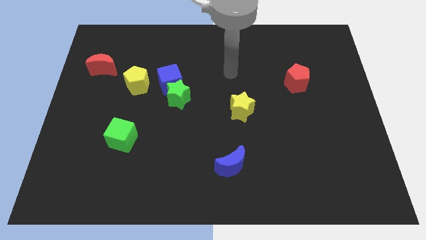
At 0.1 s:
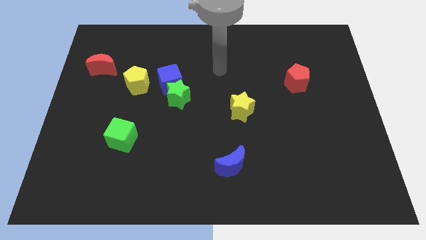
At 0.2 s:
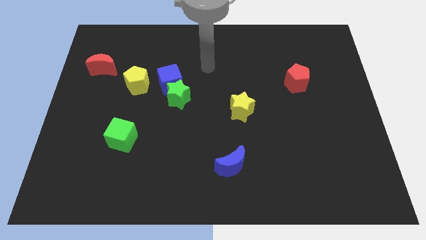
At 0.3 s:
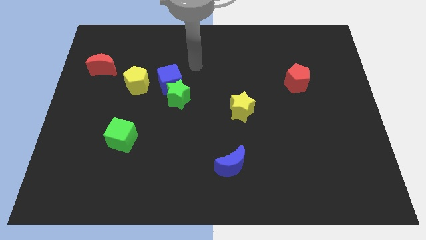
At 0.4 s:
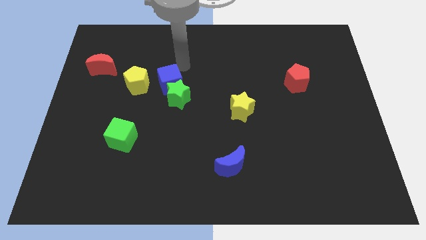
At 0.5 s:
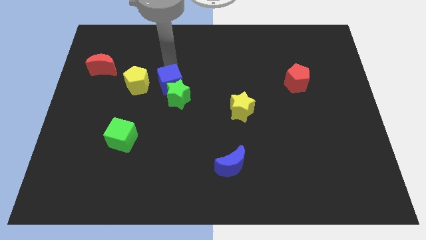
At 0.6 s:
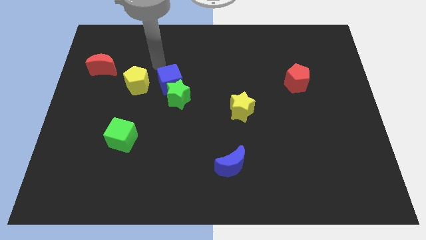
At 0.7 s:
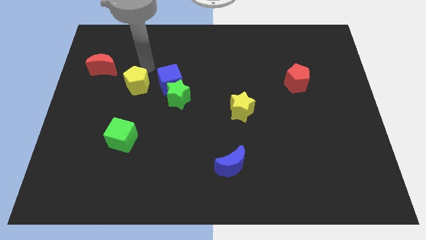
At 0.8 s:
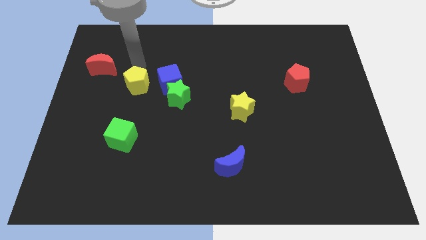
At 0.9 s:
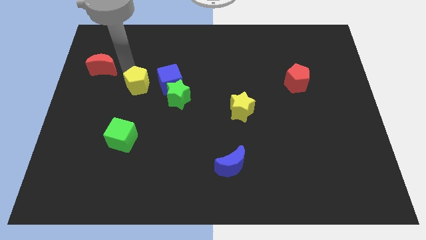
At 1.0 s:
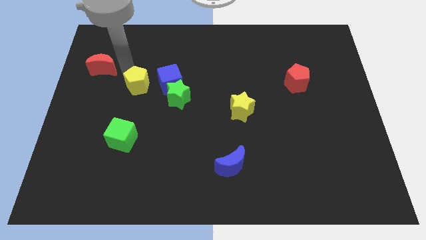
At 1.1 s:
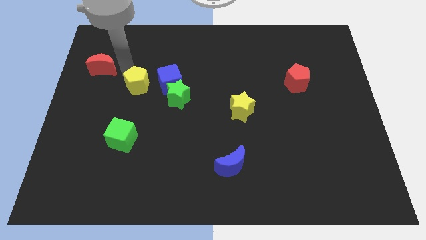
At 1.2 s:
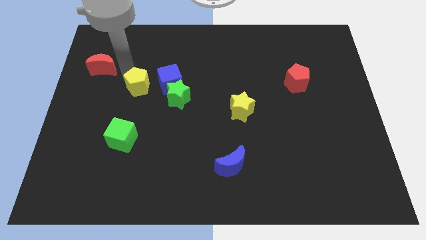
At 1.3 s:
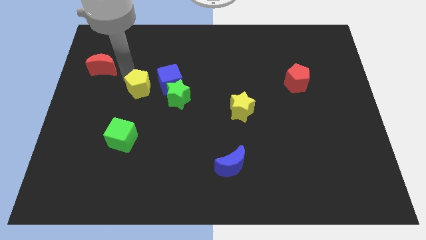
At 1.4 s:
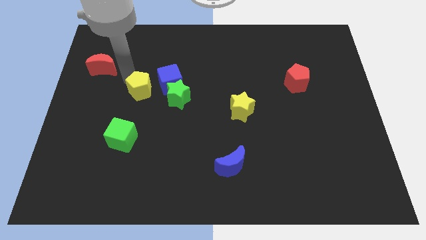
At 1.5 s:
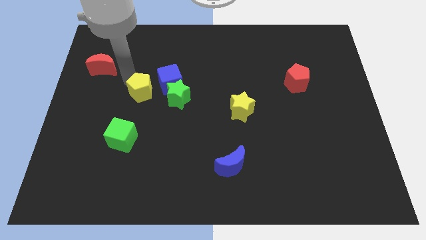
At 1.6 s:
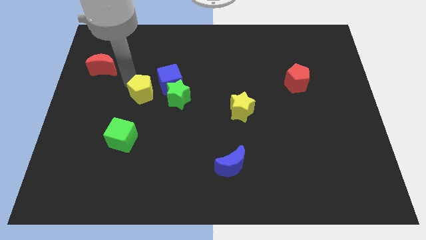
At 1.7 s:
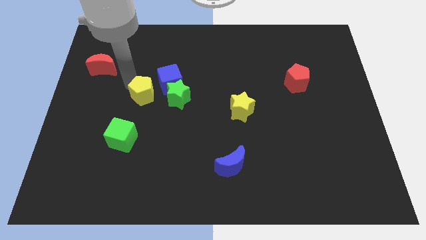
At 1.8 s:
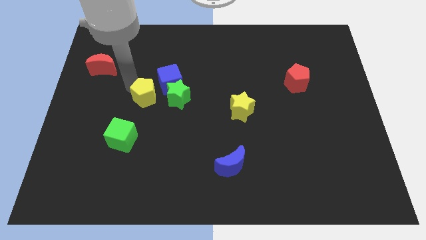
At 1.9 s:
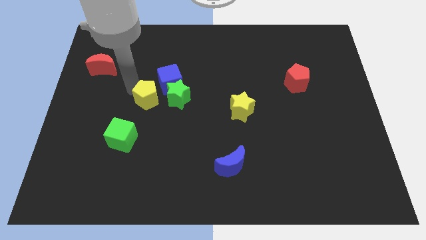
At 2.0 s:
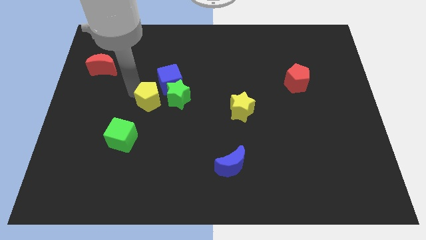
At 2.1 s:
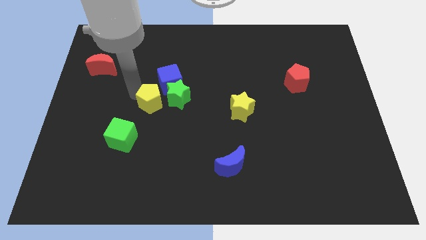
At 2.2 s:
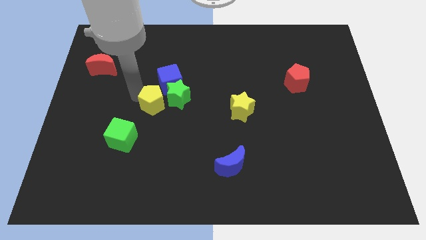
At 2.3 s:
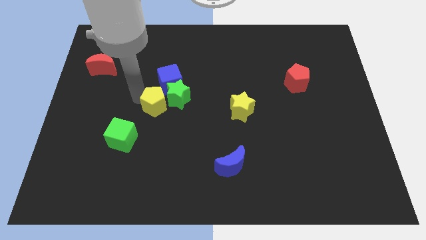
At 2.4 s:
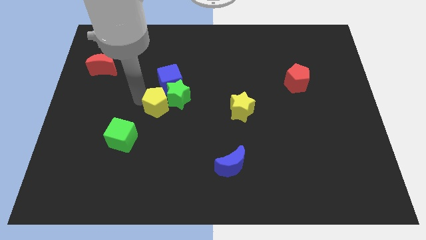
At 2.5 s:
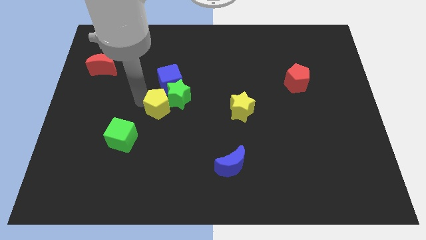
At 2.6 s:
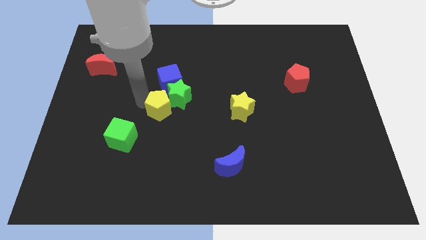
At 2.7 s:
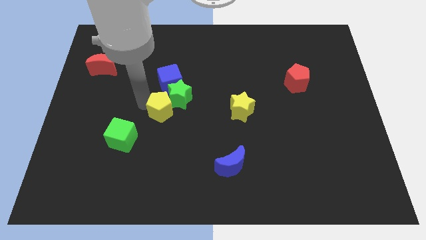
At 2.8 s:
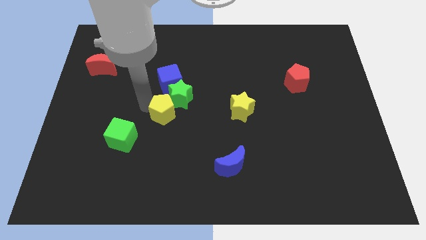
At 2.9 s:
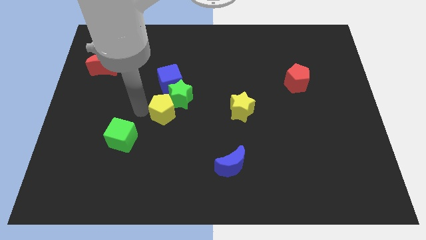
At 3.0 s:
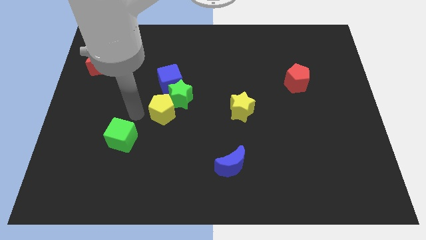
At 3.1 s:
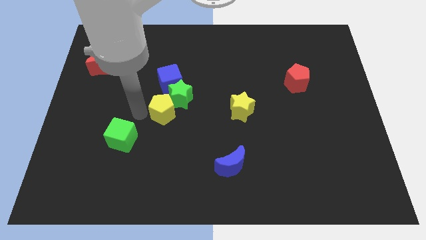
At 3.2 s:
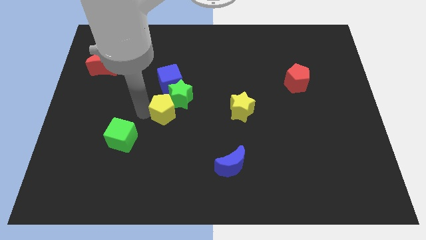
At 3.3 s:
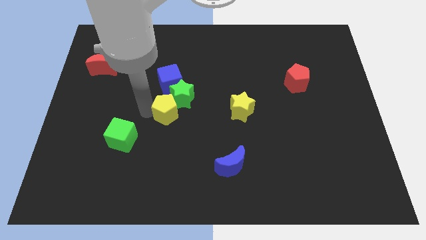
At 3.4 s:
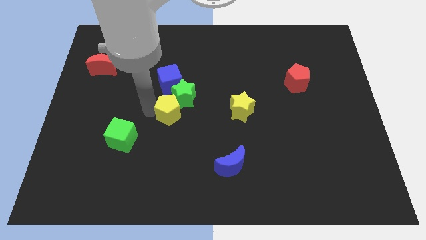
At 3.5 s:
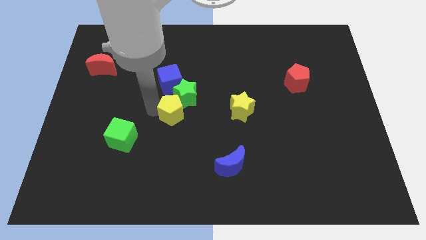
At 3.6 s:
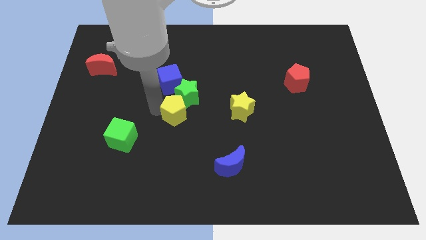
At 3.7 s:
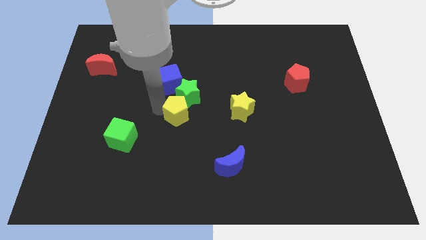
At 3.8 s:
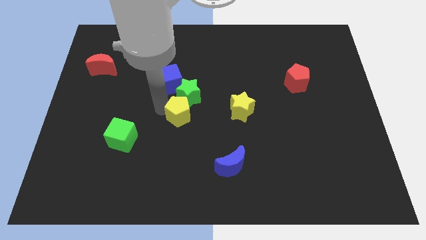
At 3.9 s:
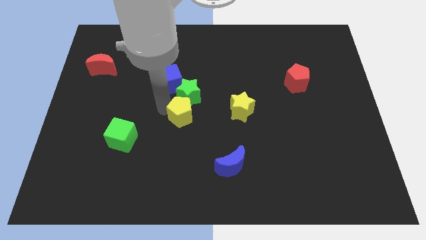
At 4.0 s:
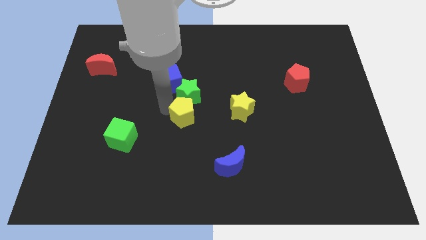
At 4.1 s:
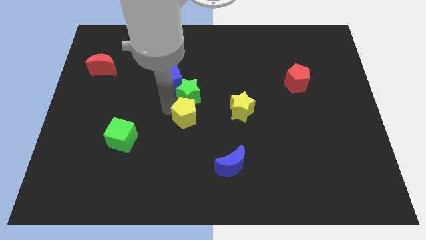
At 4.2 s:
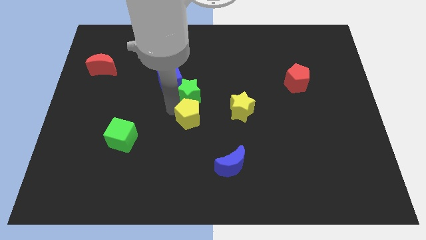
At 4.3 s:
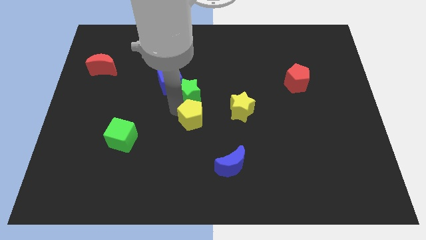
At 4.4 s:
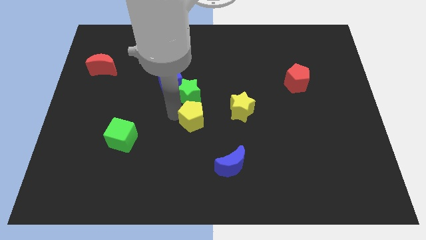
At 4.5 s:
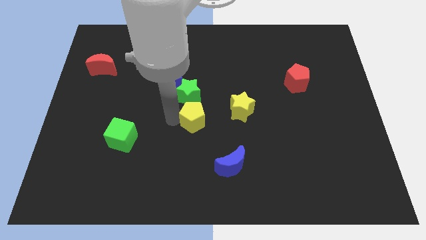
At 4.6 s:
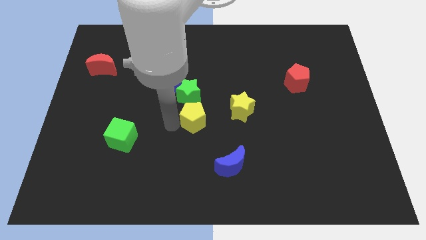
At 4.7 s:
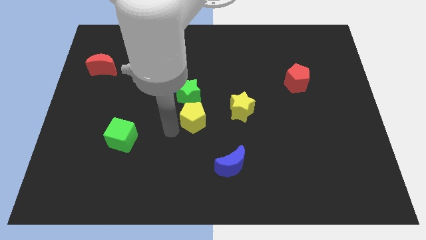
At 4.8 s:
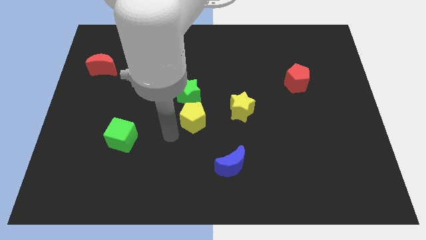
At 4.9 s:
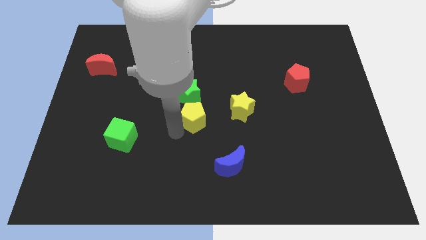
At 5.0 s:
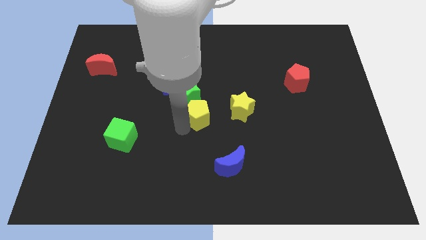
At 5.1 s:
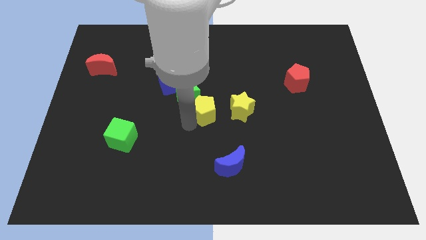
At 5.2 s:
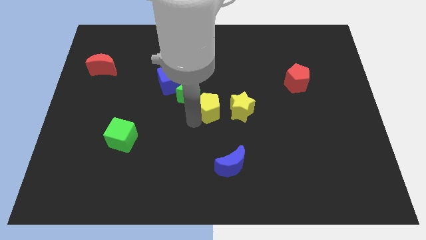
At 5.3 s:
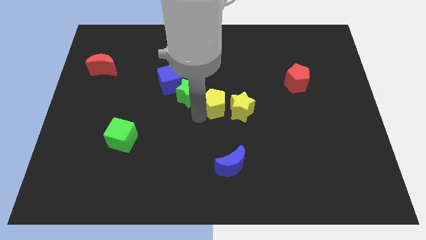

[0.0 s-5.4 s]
slide the yellow pentagon close to the yellow star

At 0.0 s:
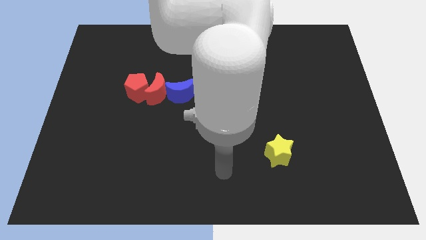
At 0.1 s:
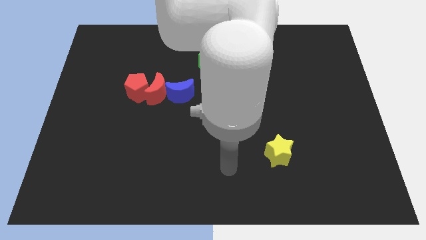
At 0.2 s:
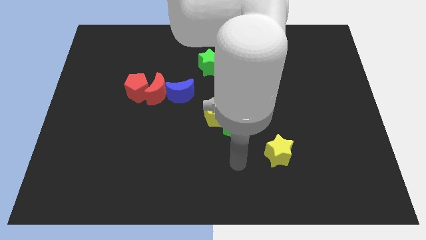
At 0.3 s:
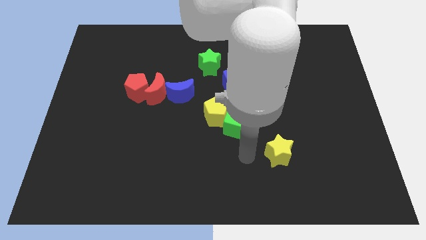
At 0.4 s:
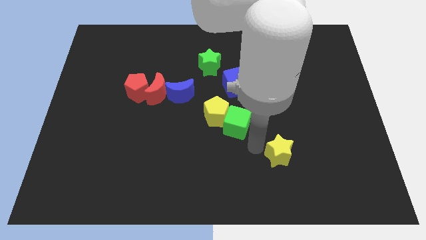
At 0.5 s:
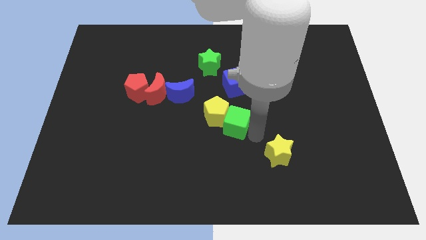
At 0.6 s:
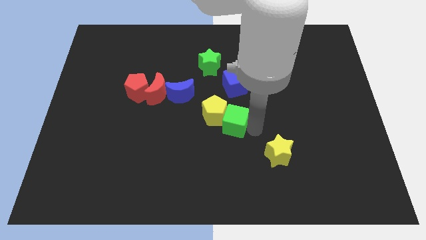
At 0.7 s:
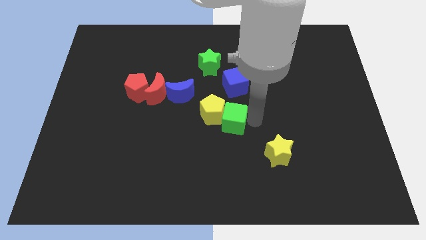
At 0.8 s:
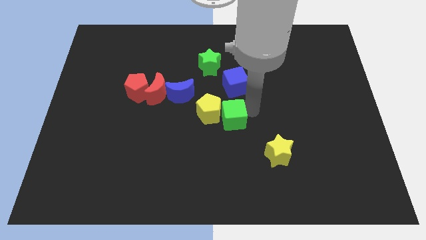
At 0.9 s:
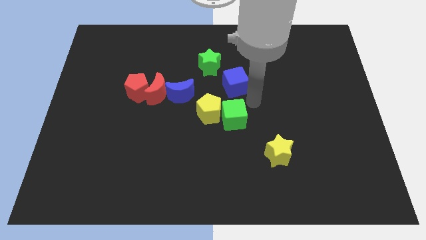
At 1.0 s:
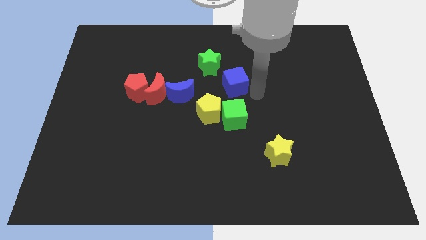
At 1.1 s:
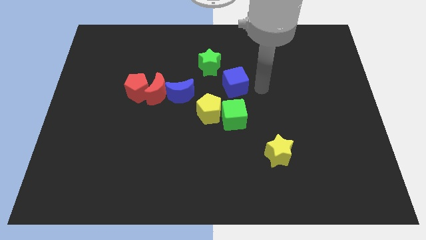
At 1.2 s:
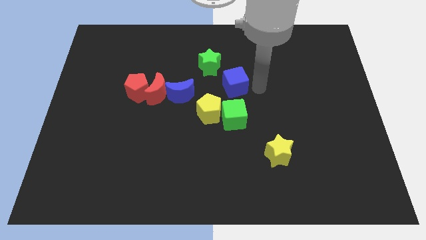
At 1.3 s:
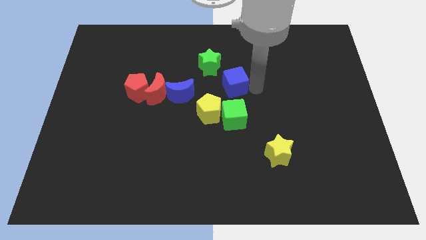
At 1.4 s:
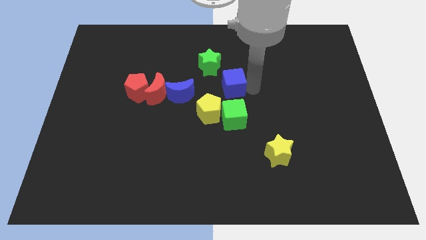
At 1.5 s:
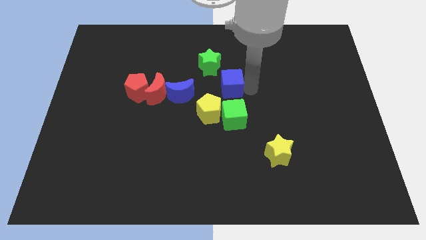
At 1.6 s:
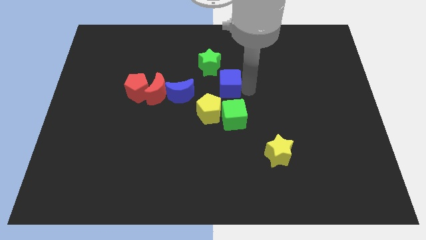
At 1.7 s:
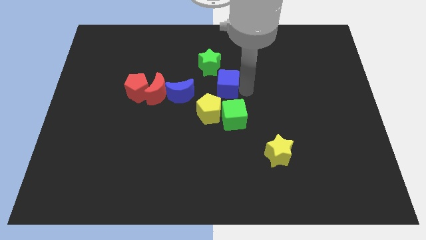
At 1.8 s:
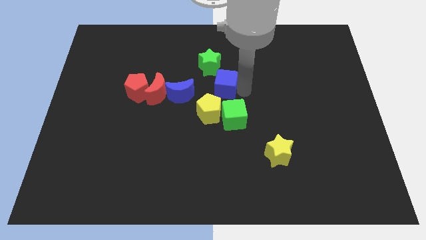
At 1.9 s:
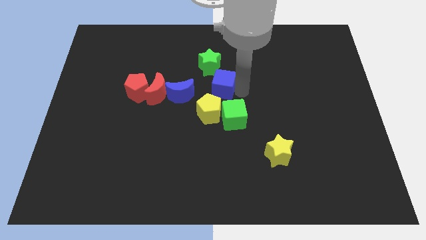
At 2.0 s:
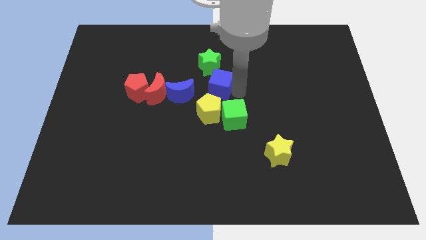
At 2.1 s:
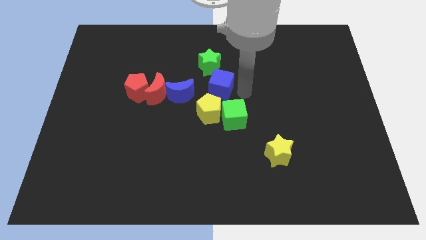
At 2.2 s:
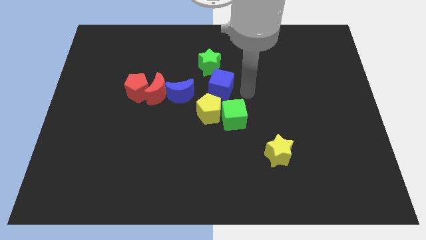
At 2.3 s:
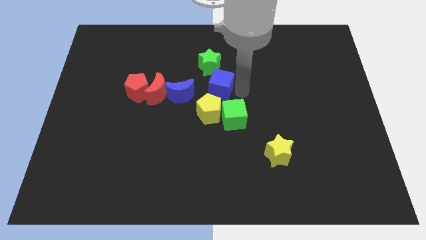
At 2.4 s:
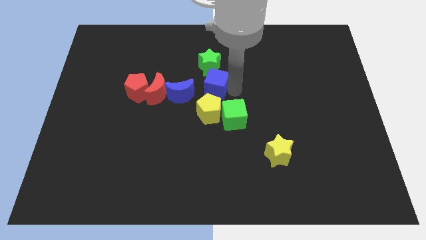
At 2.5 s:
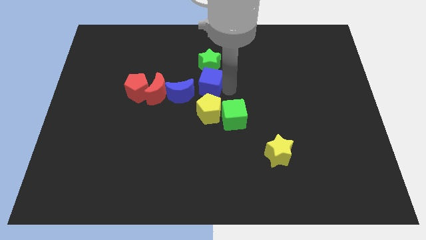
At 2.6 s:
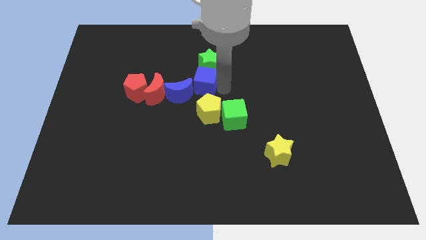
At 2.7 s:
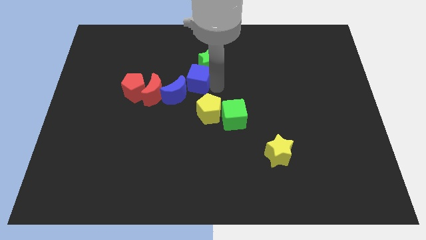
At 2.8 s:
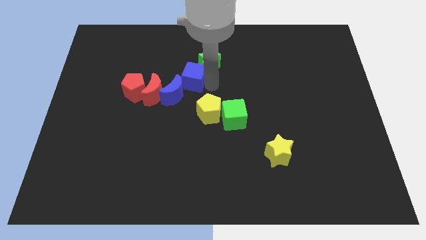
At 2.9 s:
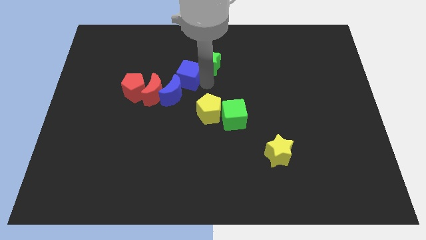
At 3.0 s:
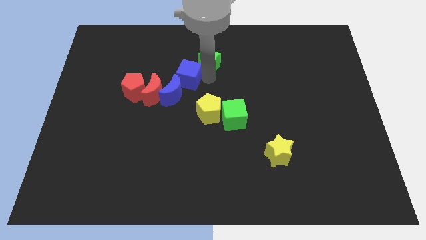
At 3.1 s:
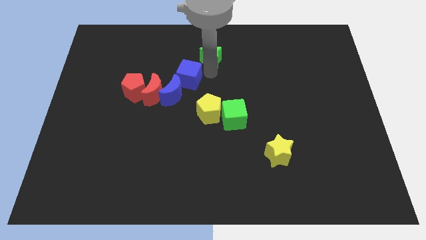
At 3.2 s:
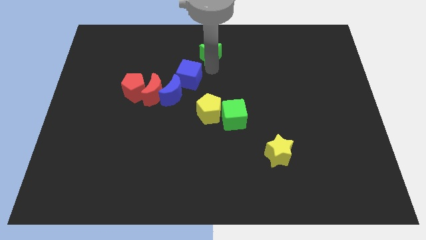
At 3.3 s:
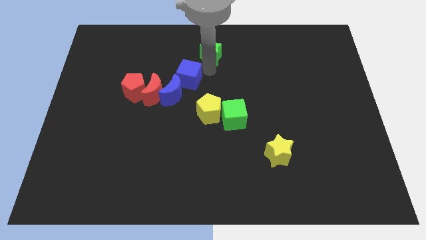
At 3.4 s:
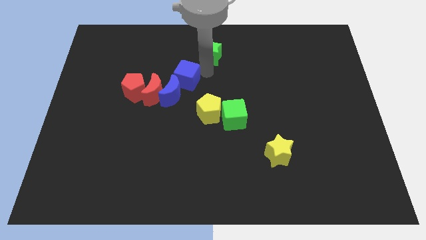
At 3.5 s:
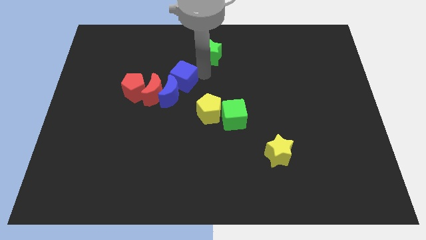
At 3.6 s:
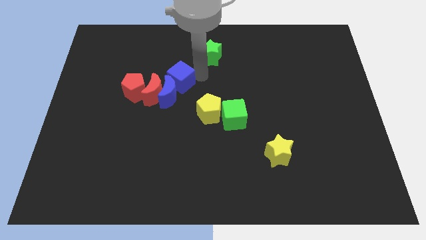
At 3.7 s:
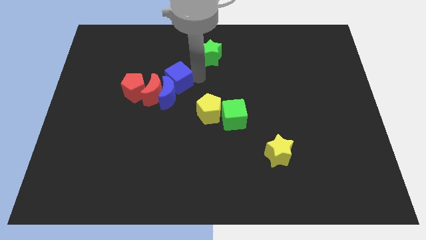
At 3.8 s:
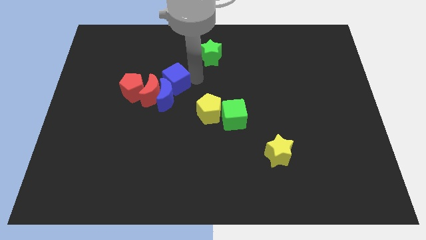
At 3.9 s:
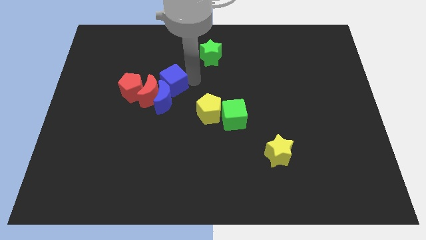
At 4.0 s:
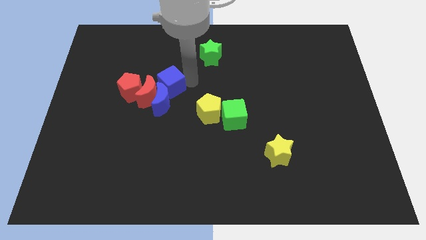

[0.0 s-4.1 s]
put the blue cube to the red moon
